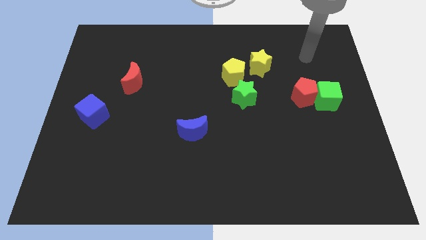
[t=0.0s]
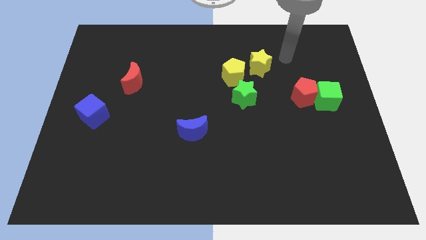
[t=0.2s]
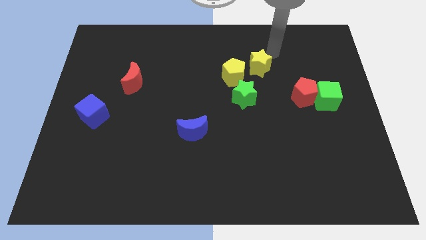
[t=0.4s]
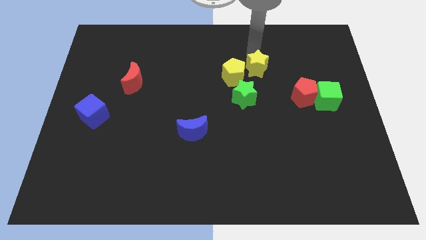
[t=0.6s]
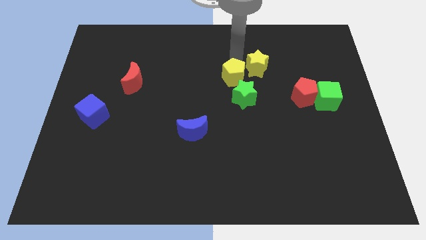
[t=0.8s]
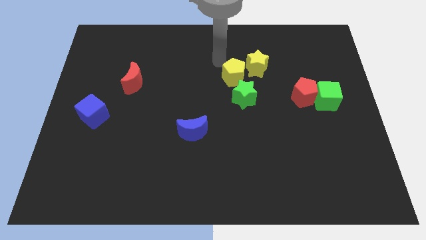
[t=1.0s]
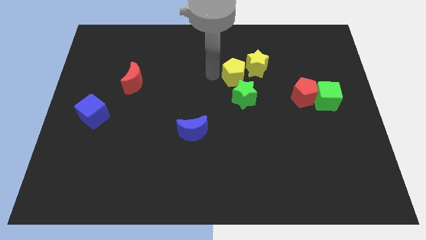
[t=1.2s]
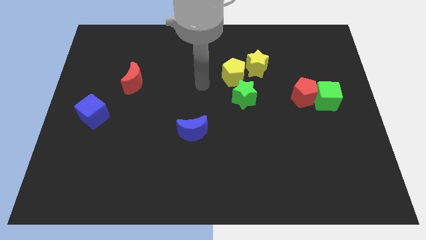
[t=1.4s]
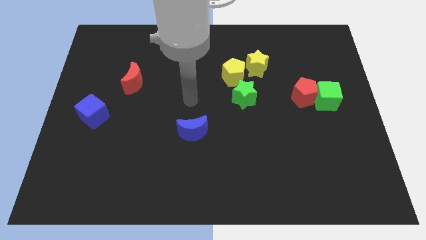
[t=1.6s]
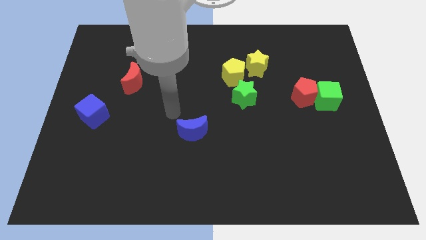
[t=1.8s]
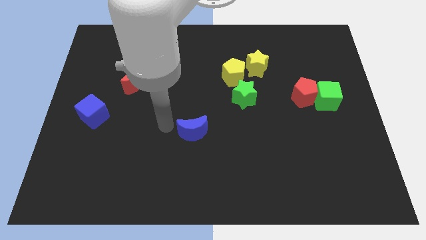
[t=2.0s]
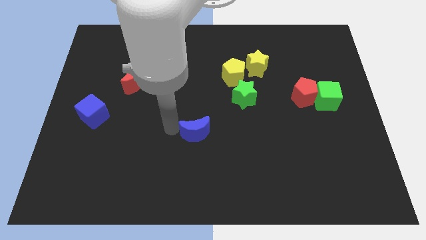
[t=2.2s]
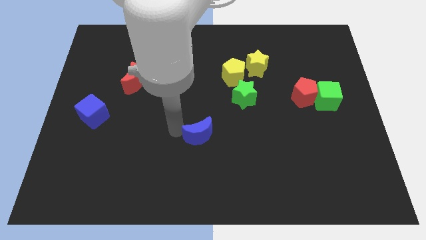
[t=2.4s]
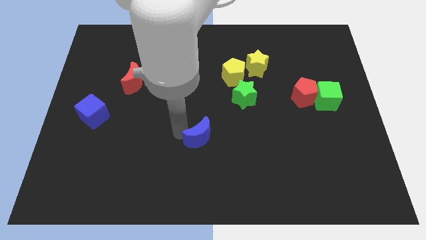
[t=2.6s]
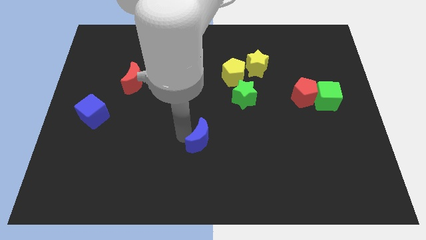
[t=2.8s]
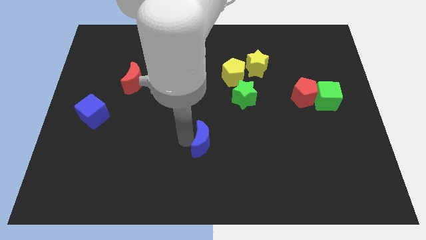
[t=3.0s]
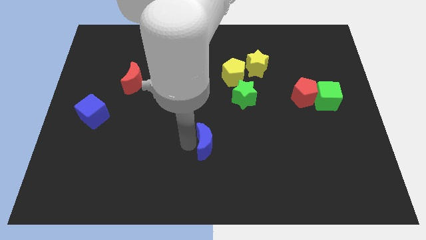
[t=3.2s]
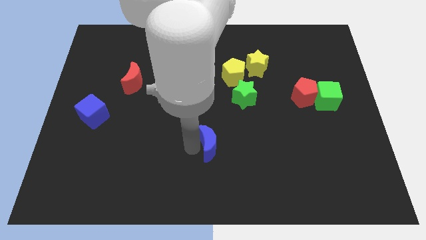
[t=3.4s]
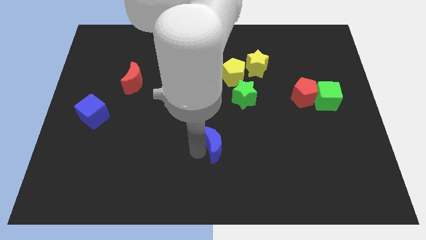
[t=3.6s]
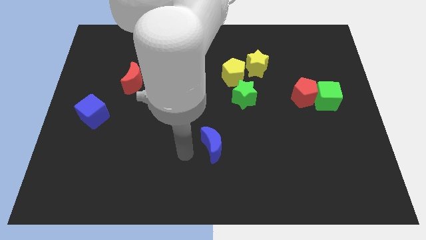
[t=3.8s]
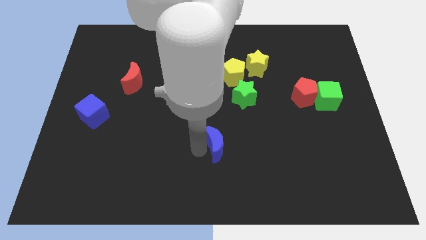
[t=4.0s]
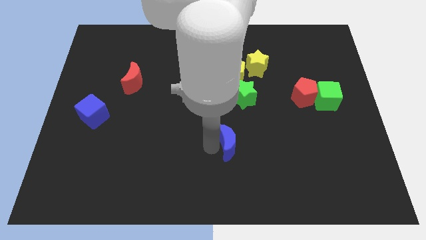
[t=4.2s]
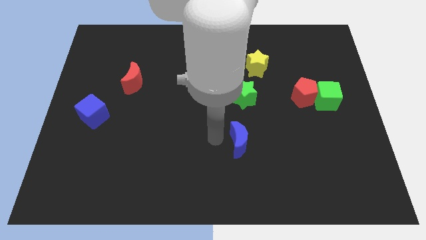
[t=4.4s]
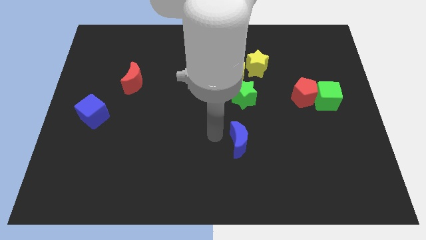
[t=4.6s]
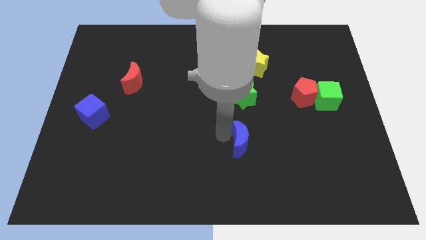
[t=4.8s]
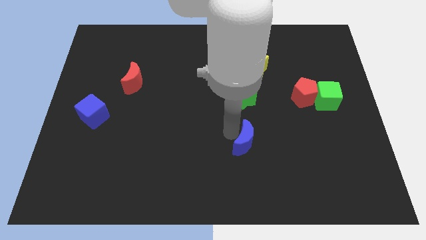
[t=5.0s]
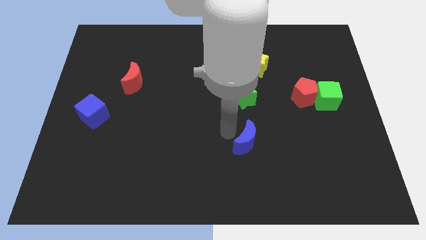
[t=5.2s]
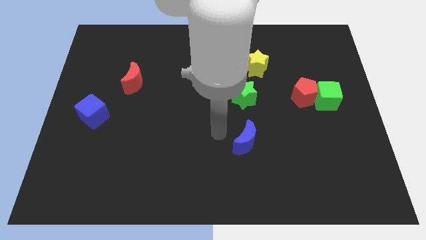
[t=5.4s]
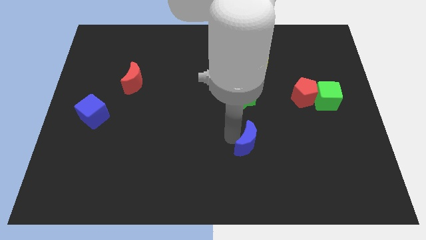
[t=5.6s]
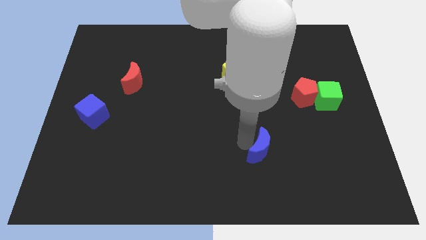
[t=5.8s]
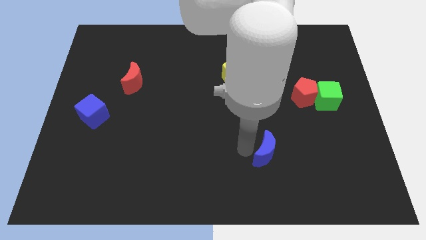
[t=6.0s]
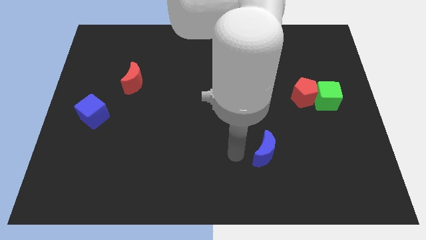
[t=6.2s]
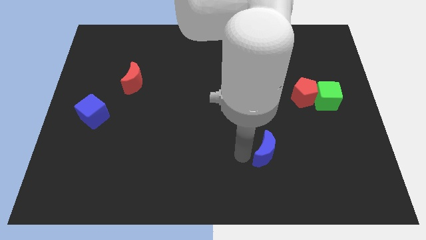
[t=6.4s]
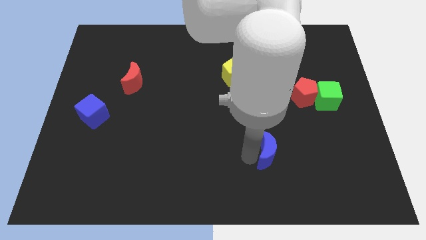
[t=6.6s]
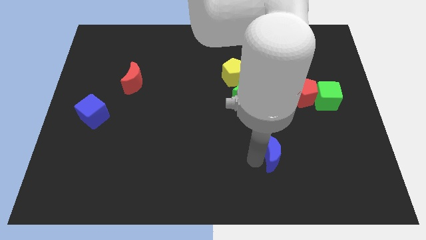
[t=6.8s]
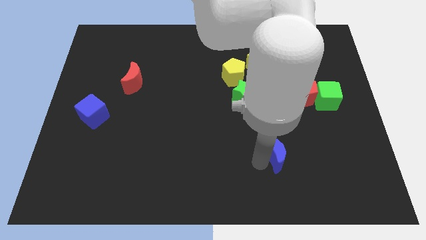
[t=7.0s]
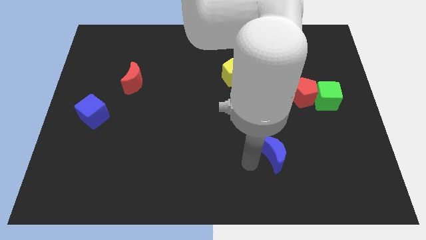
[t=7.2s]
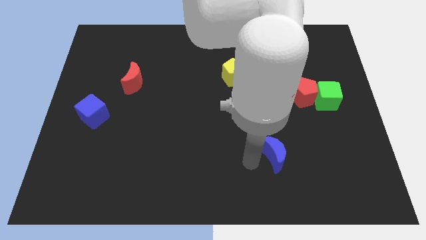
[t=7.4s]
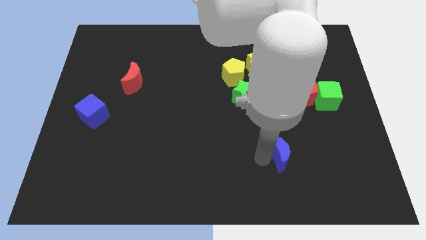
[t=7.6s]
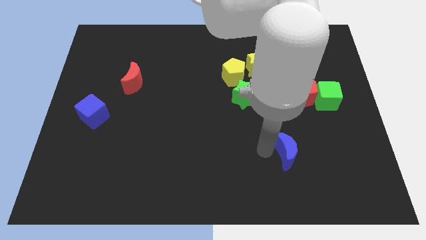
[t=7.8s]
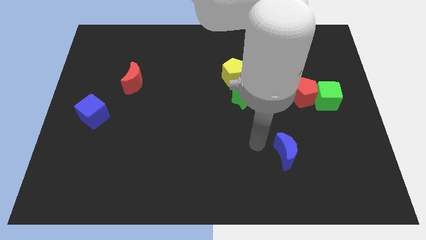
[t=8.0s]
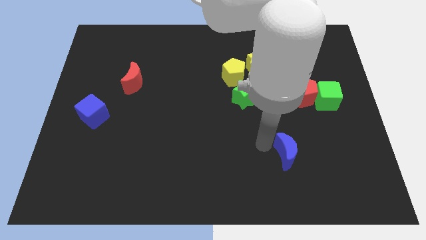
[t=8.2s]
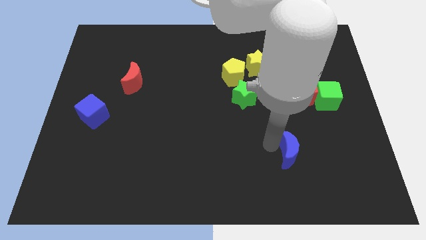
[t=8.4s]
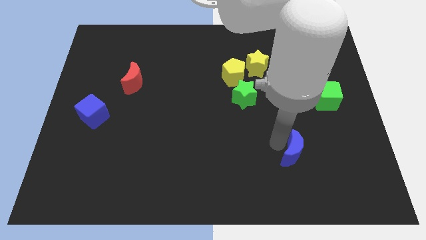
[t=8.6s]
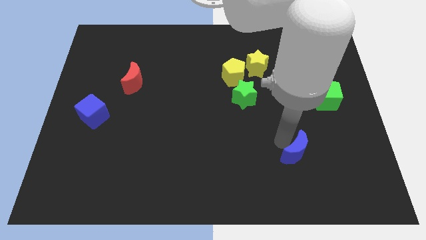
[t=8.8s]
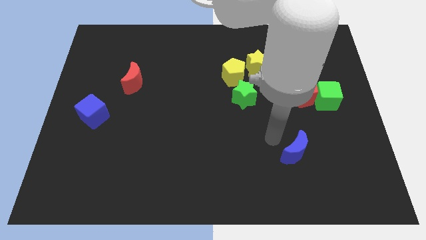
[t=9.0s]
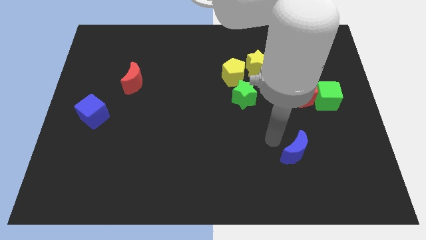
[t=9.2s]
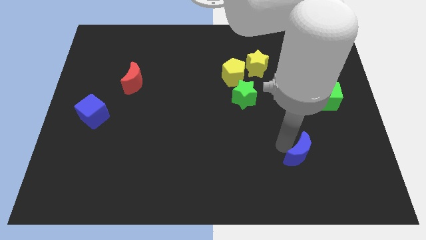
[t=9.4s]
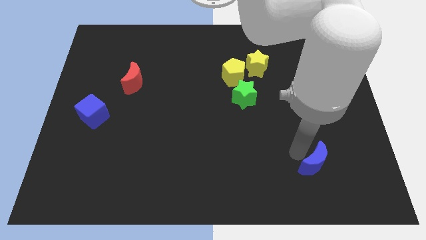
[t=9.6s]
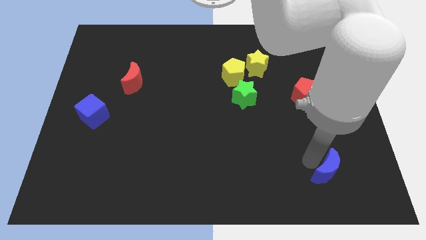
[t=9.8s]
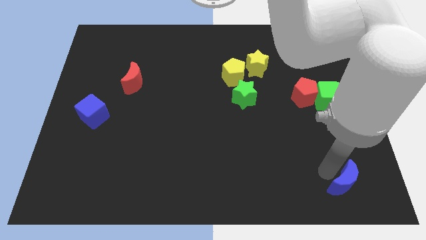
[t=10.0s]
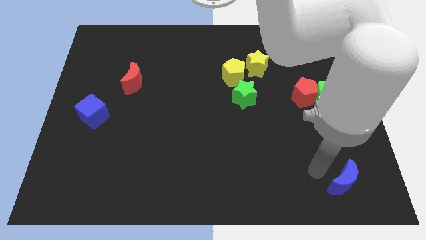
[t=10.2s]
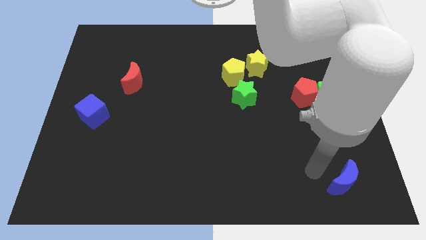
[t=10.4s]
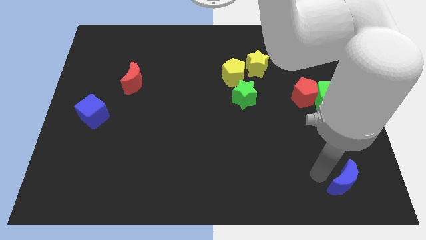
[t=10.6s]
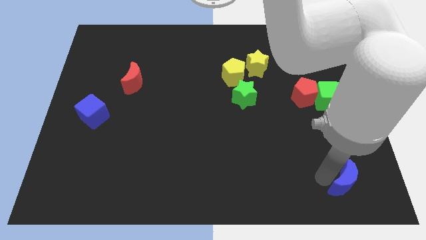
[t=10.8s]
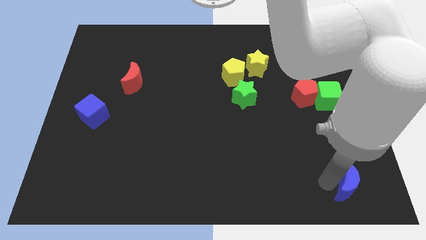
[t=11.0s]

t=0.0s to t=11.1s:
move the blue moon to the bottom right corner
